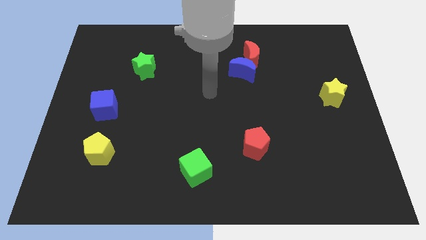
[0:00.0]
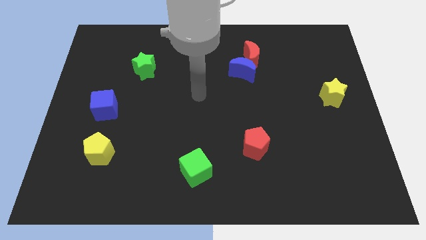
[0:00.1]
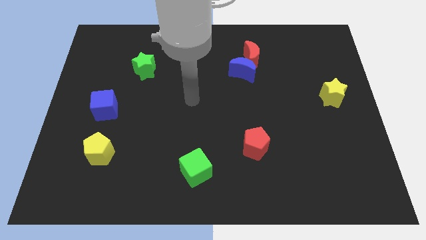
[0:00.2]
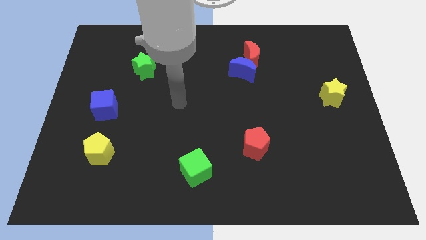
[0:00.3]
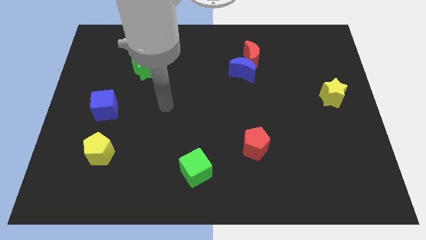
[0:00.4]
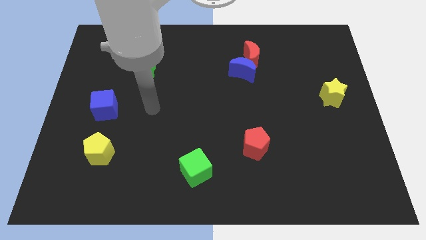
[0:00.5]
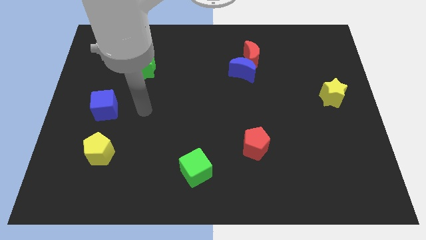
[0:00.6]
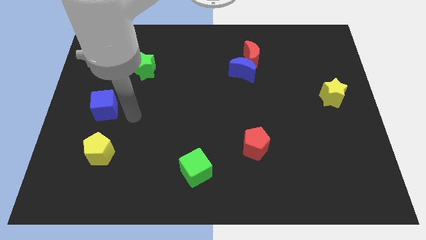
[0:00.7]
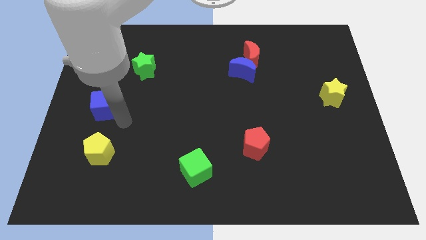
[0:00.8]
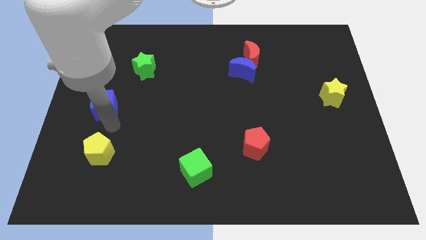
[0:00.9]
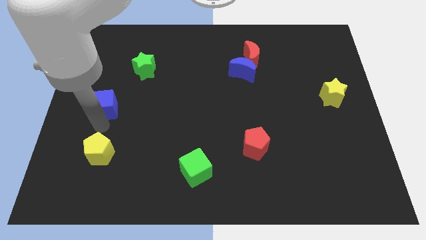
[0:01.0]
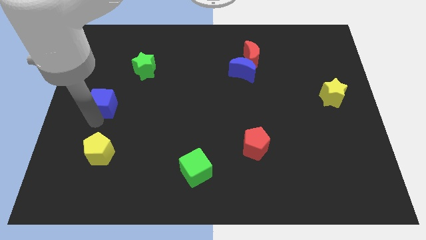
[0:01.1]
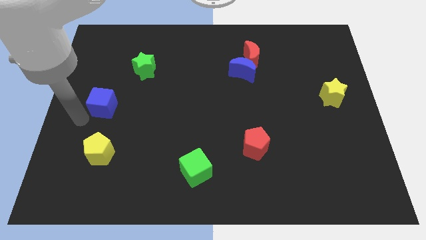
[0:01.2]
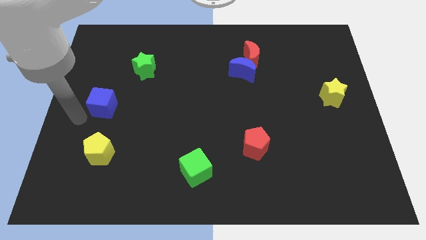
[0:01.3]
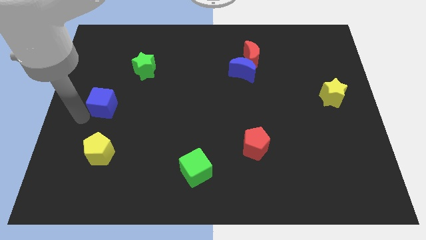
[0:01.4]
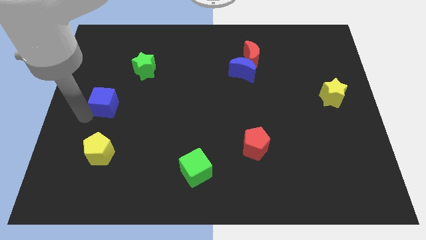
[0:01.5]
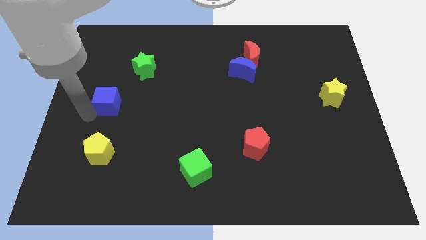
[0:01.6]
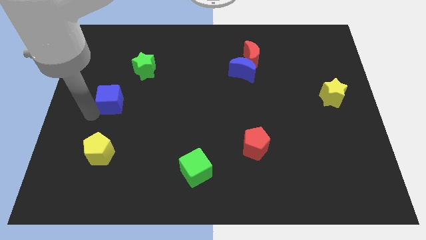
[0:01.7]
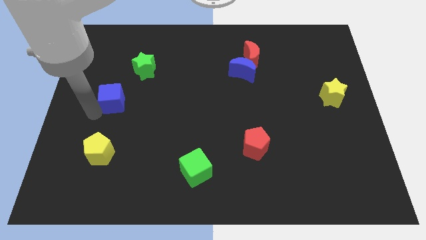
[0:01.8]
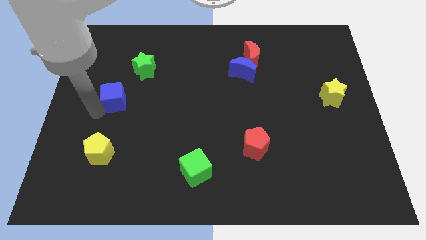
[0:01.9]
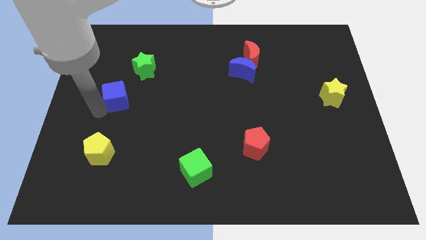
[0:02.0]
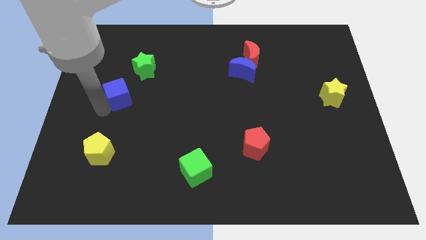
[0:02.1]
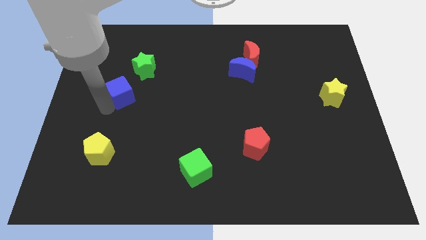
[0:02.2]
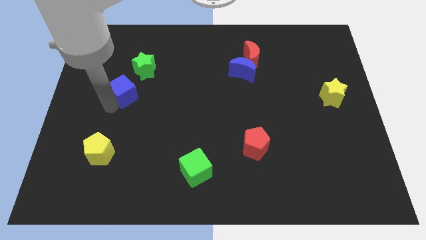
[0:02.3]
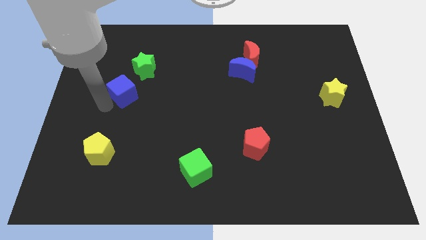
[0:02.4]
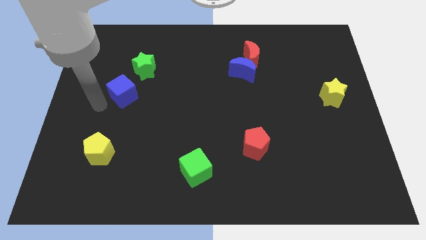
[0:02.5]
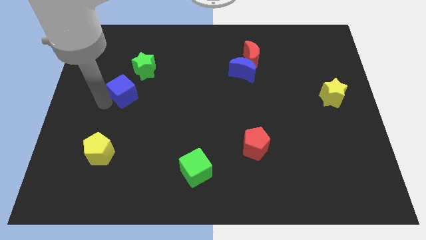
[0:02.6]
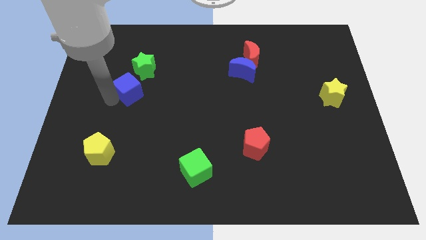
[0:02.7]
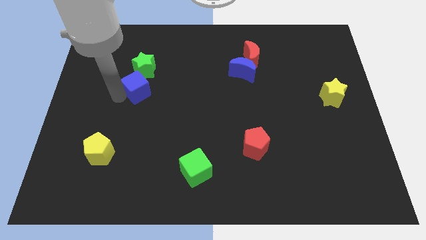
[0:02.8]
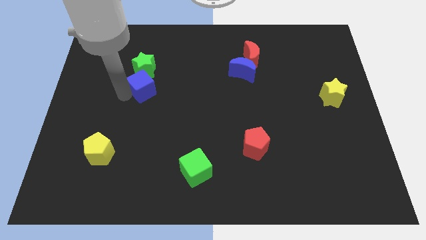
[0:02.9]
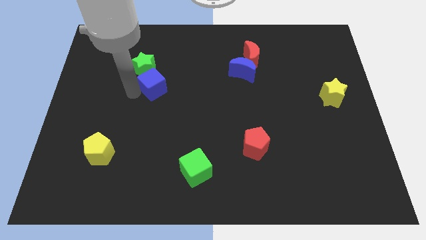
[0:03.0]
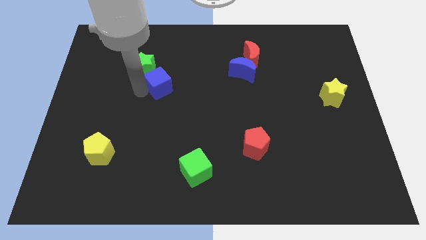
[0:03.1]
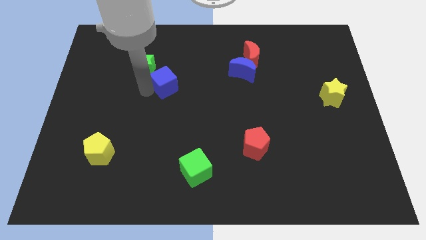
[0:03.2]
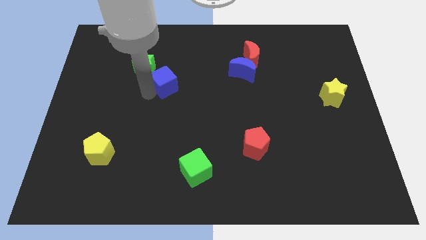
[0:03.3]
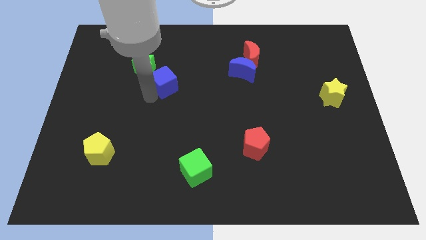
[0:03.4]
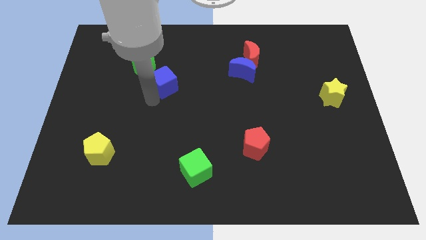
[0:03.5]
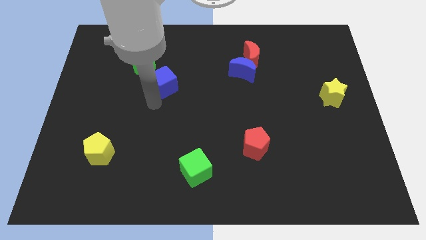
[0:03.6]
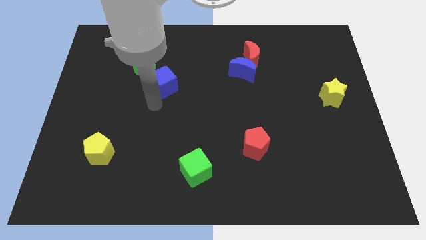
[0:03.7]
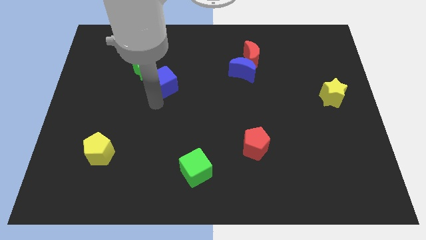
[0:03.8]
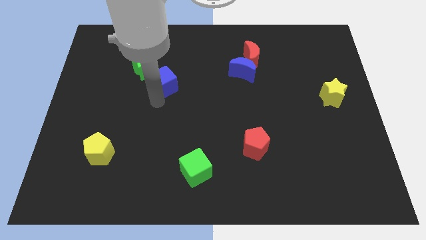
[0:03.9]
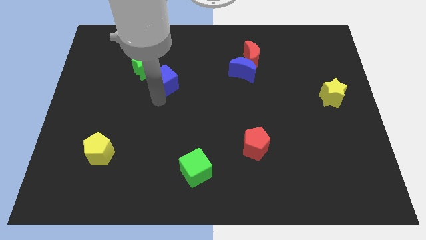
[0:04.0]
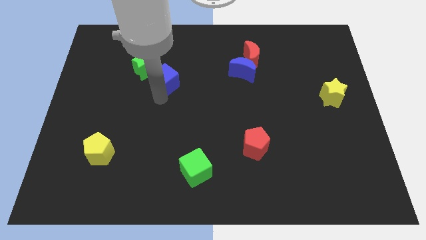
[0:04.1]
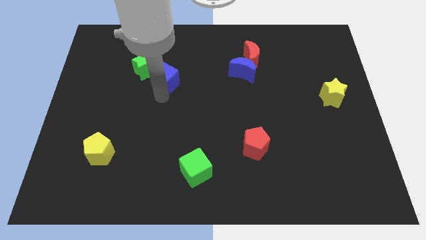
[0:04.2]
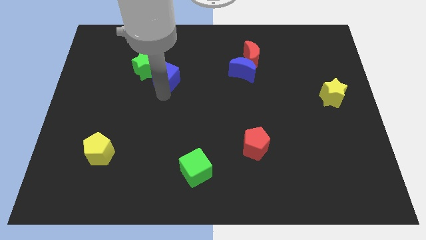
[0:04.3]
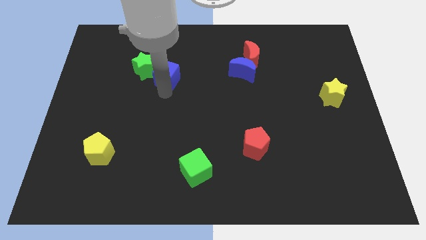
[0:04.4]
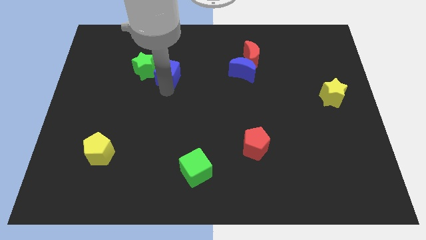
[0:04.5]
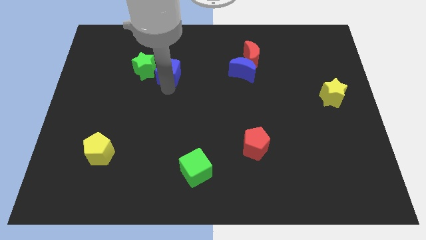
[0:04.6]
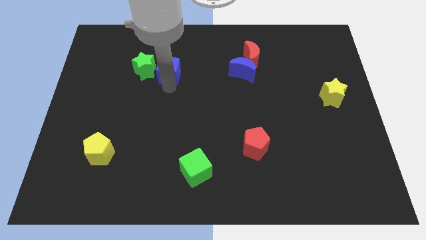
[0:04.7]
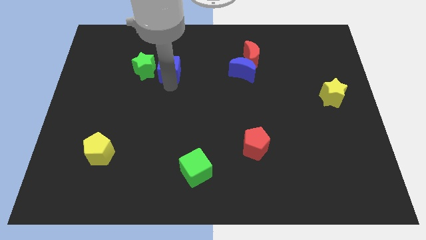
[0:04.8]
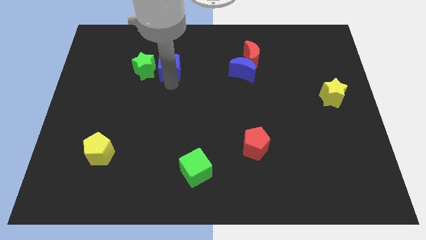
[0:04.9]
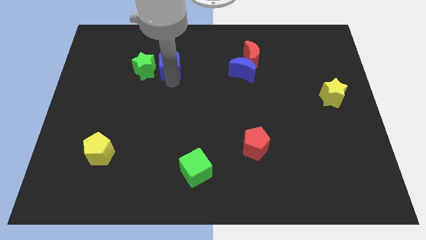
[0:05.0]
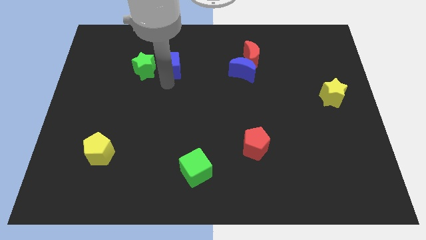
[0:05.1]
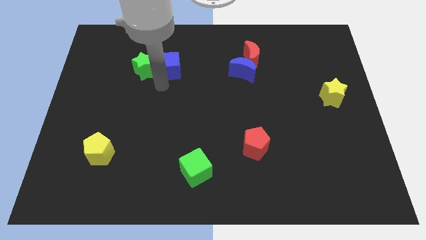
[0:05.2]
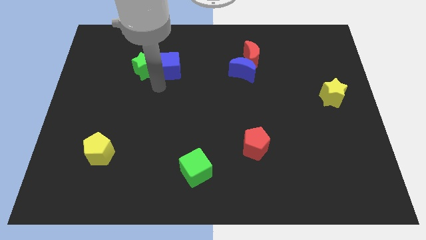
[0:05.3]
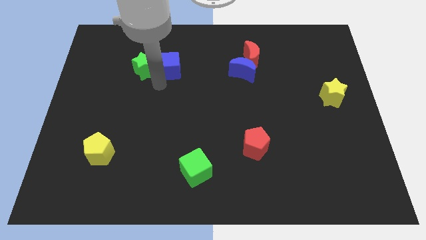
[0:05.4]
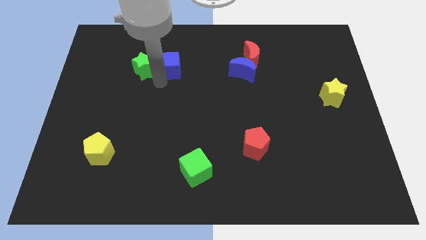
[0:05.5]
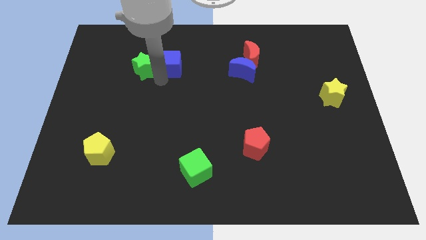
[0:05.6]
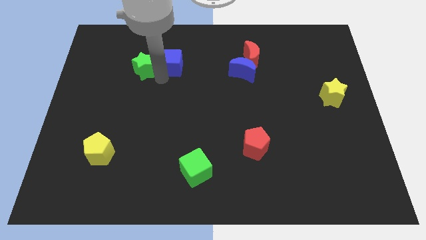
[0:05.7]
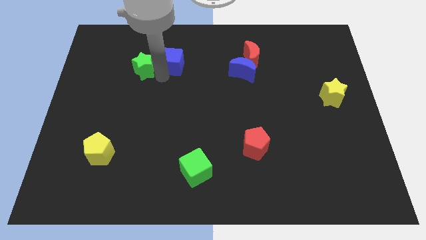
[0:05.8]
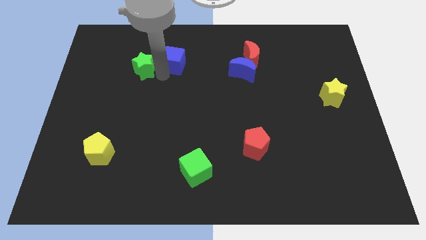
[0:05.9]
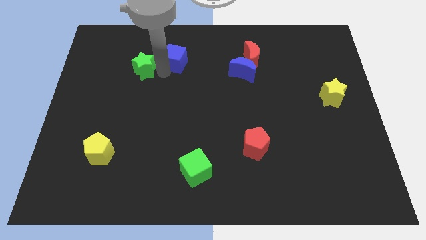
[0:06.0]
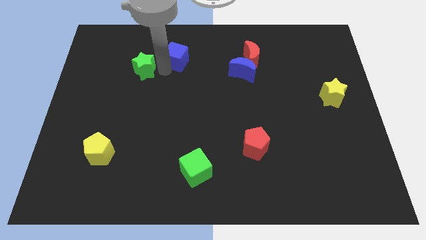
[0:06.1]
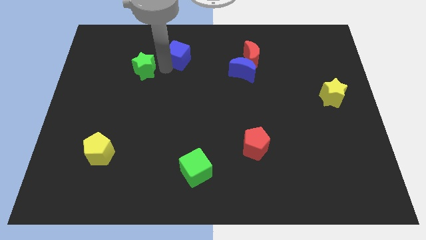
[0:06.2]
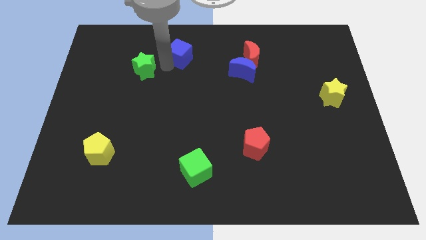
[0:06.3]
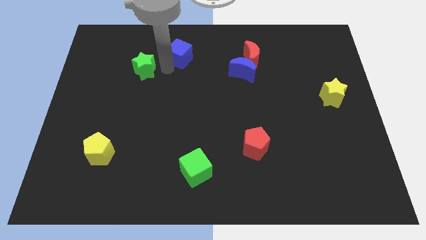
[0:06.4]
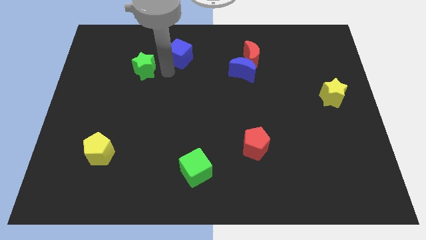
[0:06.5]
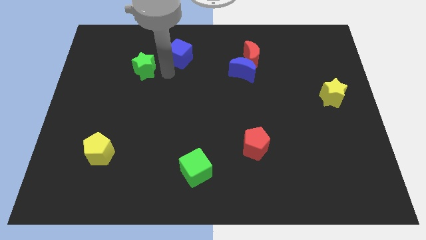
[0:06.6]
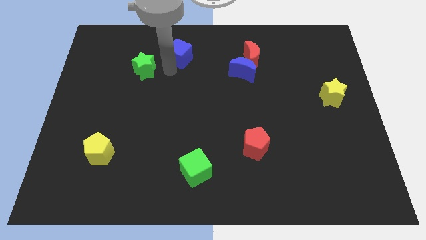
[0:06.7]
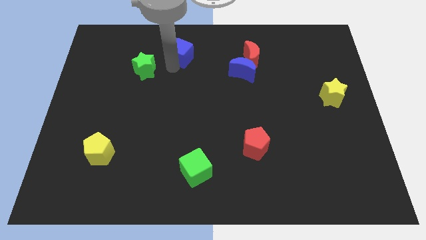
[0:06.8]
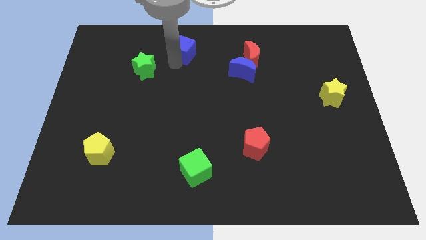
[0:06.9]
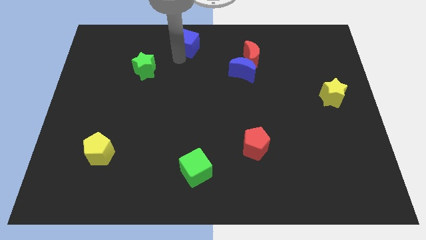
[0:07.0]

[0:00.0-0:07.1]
slide the blue cube to the towards your base
